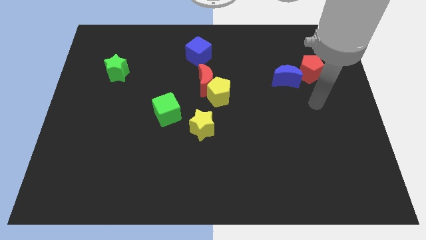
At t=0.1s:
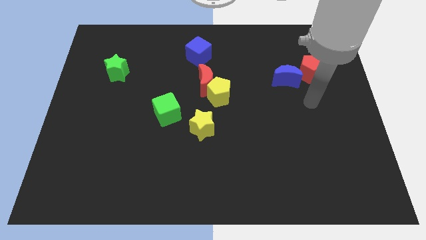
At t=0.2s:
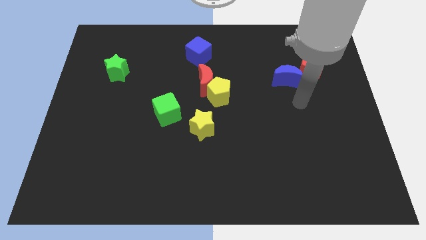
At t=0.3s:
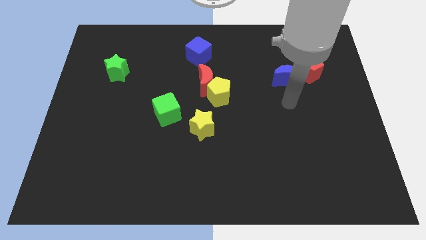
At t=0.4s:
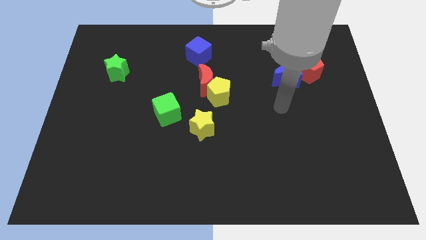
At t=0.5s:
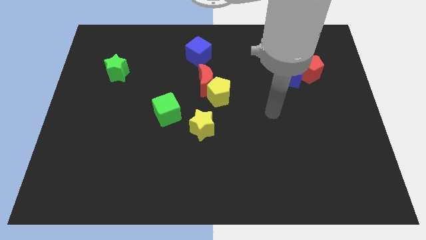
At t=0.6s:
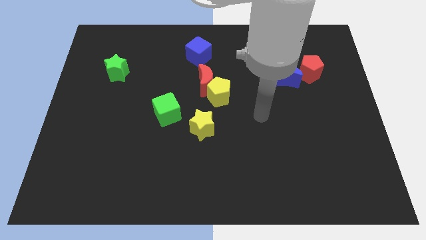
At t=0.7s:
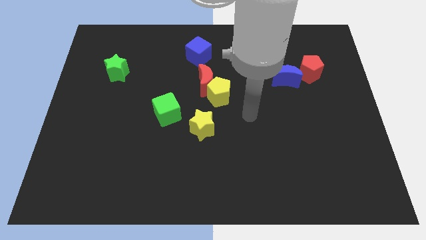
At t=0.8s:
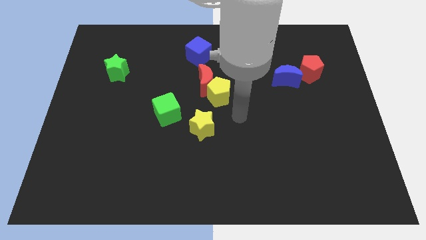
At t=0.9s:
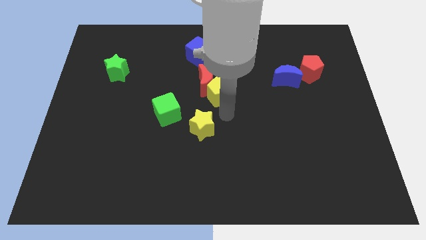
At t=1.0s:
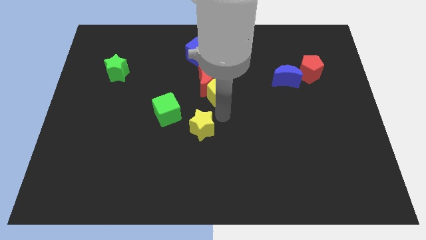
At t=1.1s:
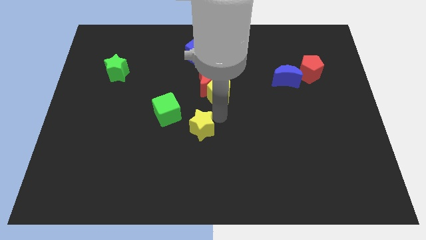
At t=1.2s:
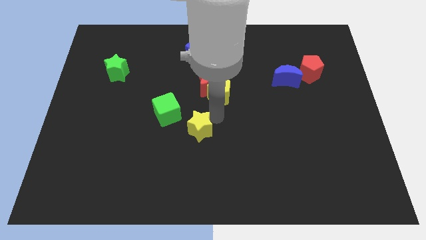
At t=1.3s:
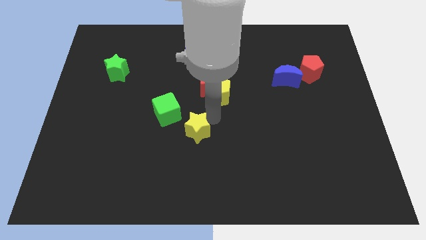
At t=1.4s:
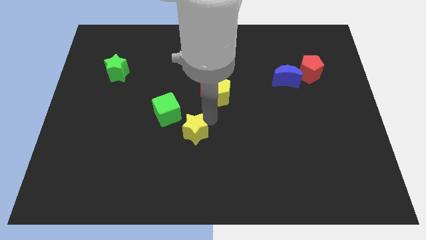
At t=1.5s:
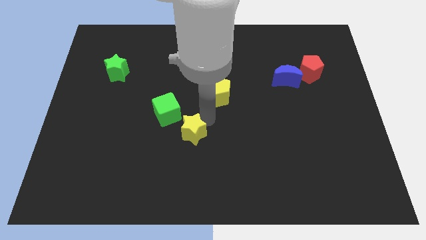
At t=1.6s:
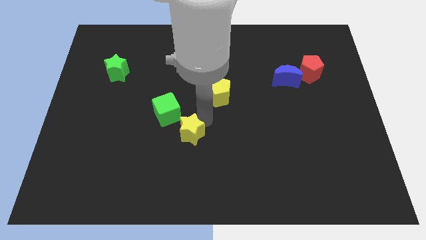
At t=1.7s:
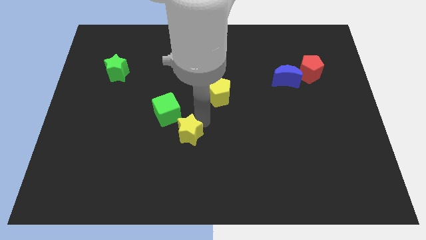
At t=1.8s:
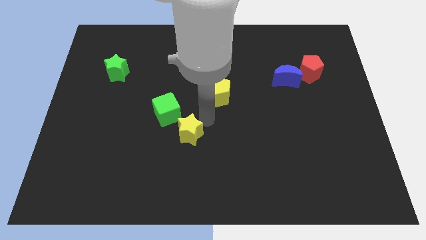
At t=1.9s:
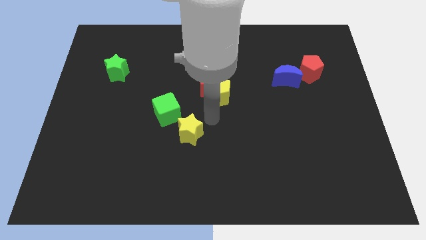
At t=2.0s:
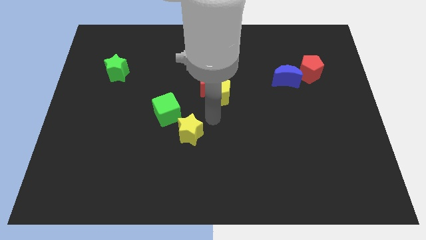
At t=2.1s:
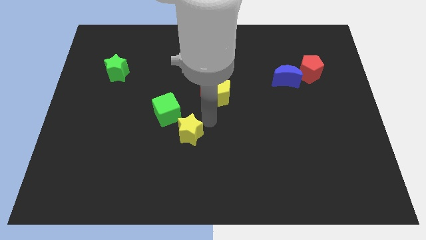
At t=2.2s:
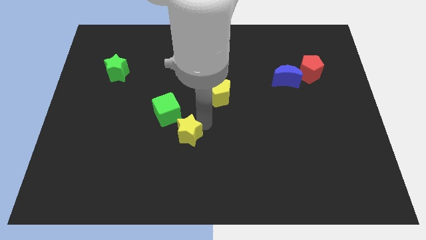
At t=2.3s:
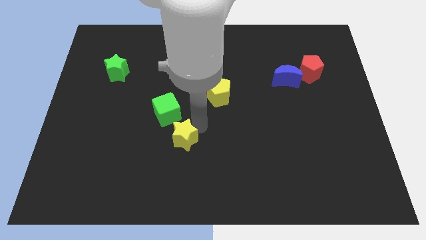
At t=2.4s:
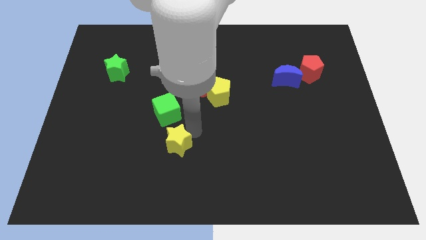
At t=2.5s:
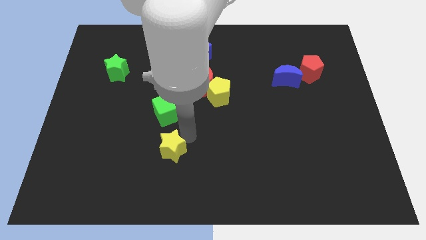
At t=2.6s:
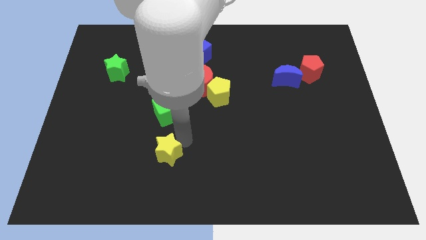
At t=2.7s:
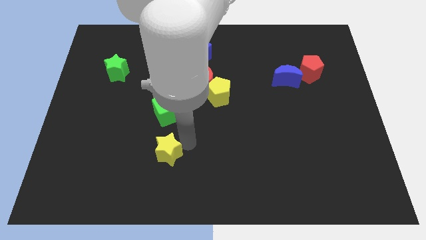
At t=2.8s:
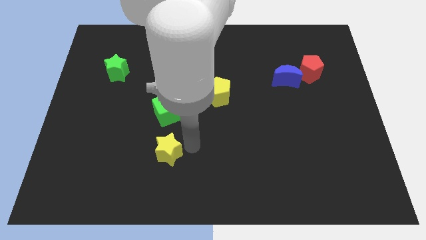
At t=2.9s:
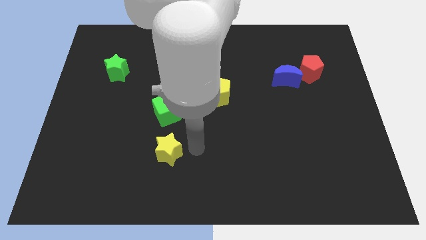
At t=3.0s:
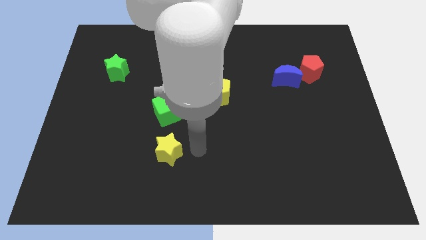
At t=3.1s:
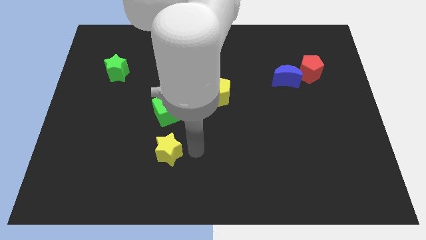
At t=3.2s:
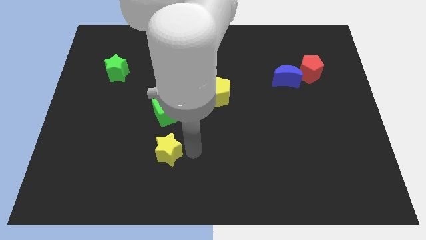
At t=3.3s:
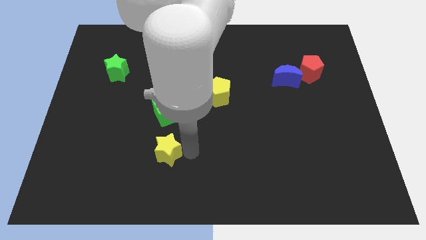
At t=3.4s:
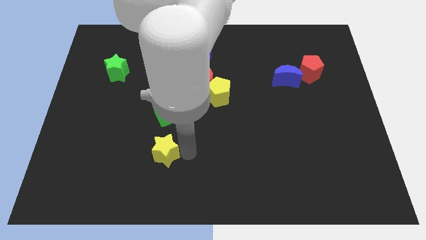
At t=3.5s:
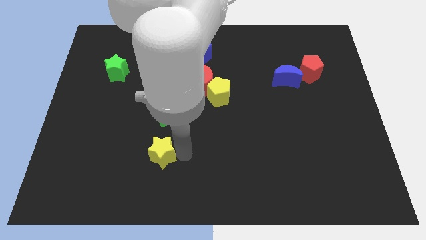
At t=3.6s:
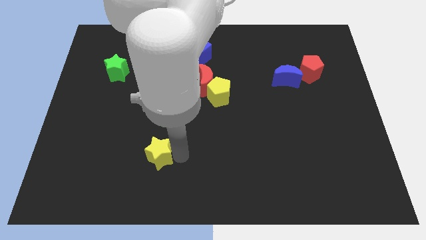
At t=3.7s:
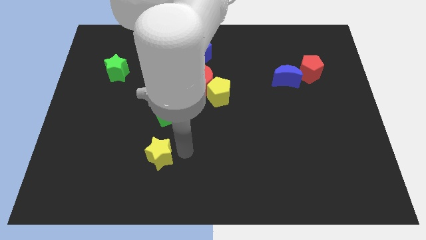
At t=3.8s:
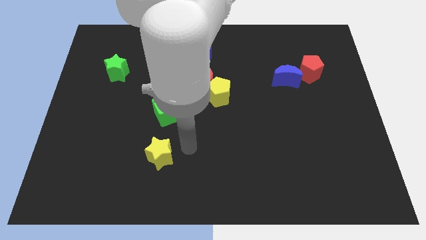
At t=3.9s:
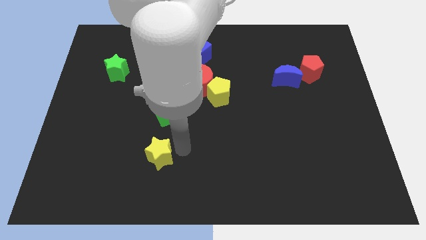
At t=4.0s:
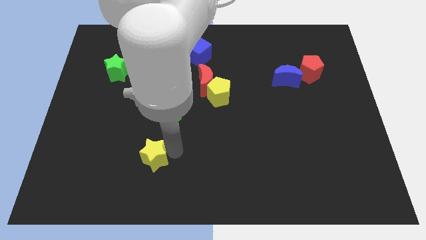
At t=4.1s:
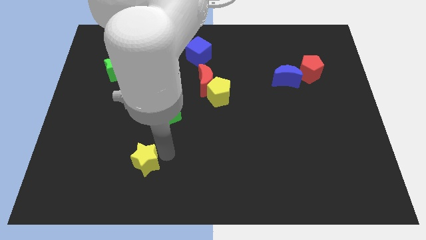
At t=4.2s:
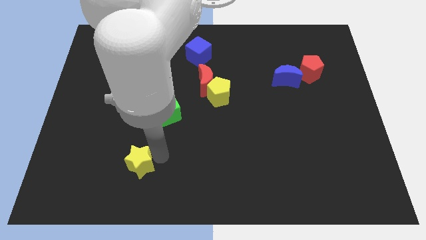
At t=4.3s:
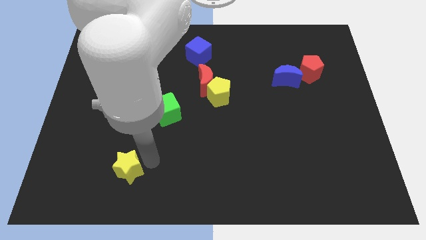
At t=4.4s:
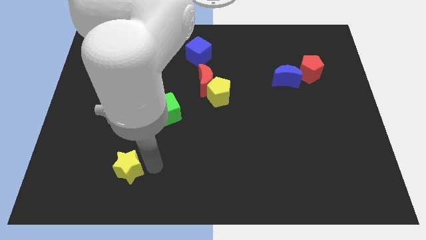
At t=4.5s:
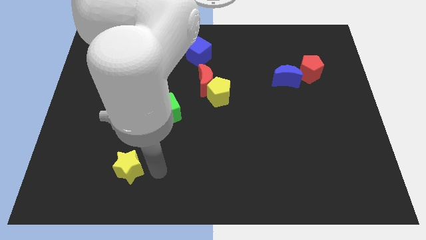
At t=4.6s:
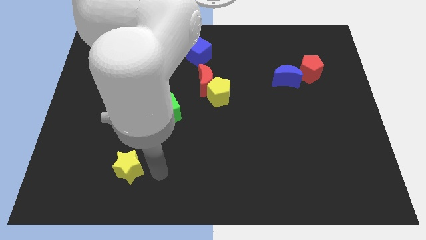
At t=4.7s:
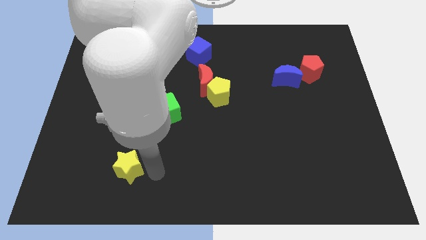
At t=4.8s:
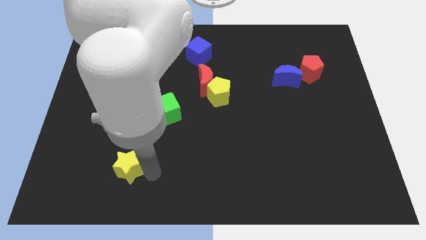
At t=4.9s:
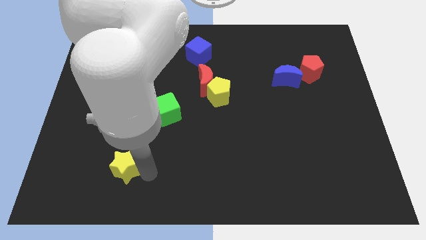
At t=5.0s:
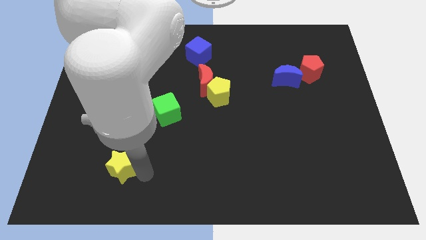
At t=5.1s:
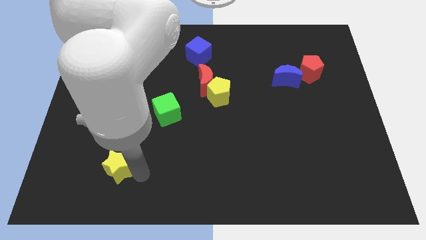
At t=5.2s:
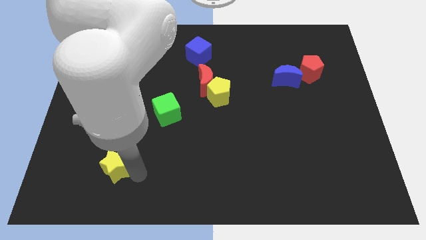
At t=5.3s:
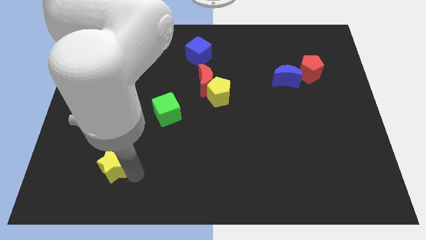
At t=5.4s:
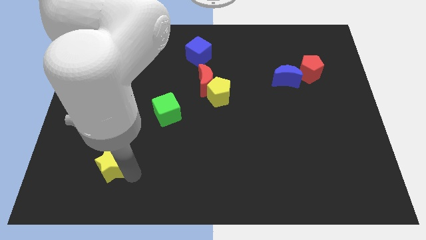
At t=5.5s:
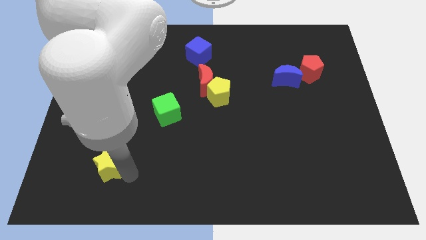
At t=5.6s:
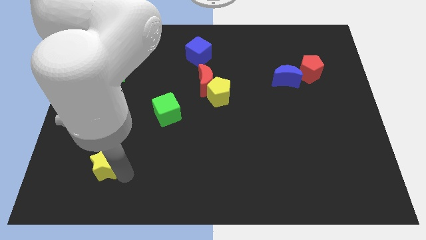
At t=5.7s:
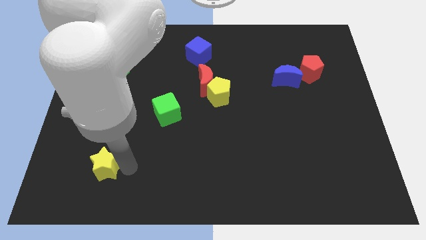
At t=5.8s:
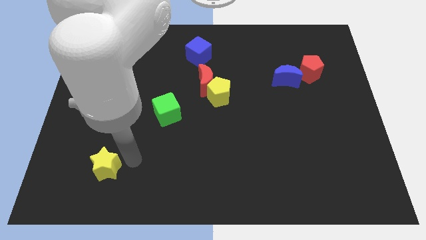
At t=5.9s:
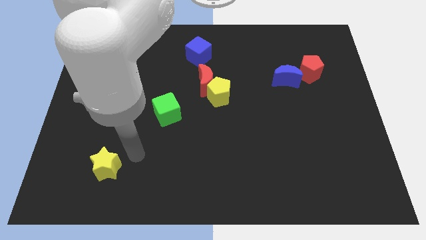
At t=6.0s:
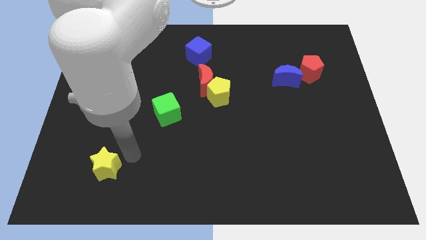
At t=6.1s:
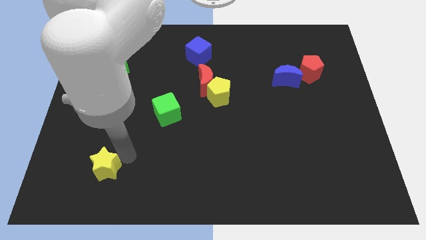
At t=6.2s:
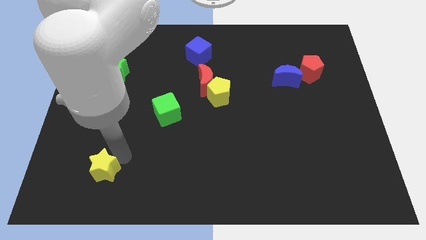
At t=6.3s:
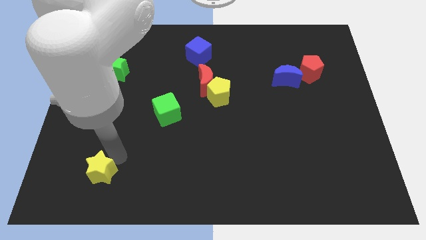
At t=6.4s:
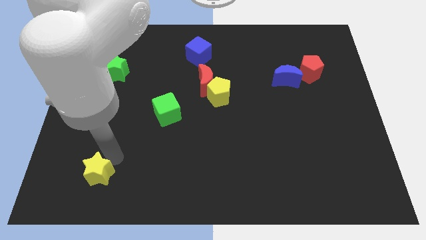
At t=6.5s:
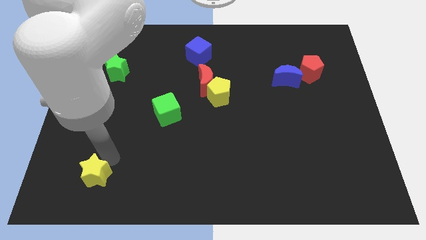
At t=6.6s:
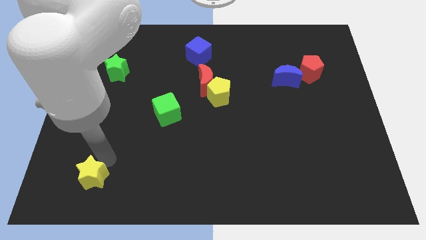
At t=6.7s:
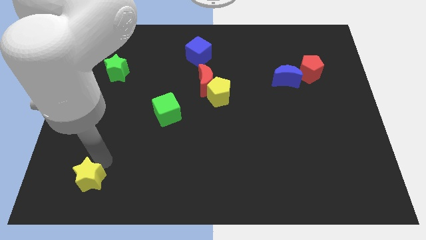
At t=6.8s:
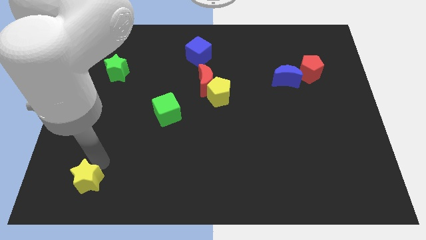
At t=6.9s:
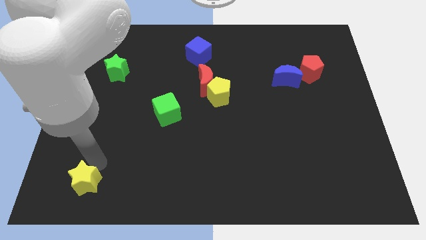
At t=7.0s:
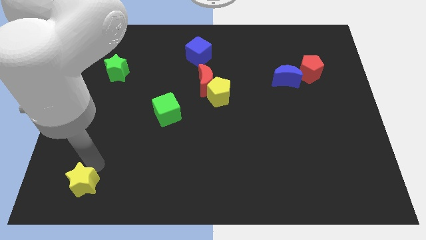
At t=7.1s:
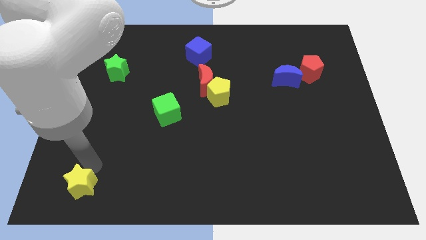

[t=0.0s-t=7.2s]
slide the yellow star to the bottom left corner
